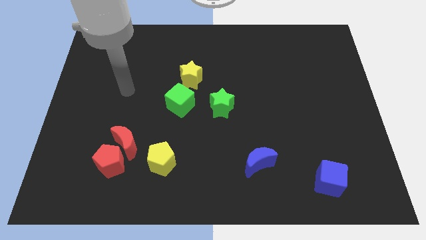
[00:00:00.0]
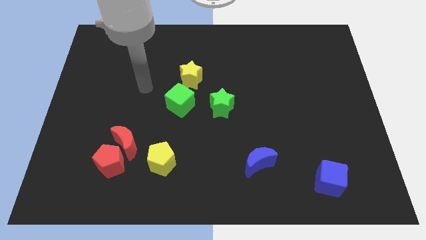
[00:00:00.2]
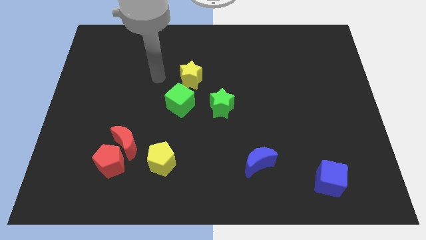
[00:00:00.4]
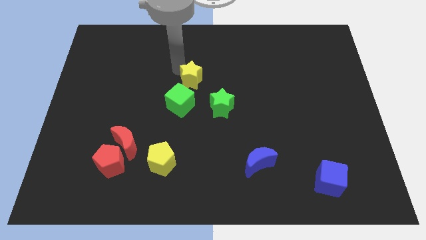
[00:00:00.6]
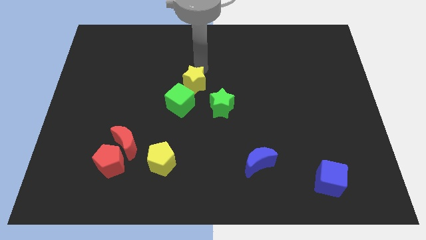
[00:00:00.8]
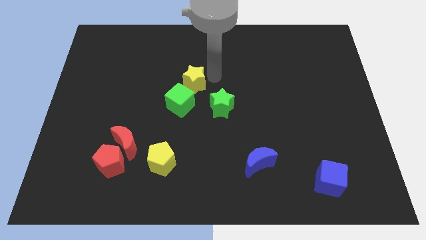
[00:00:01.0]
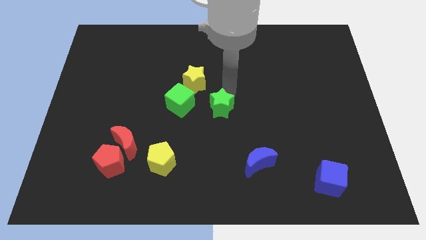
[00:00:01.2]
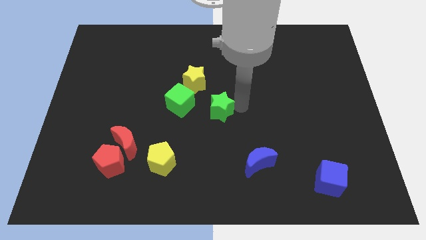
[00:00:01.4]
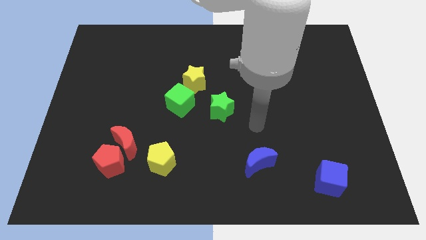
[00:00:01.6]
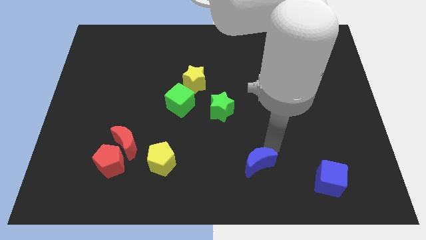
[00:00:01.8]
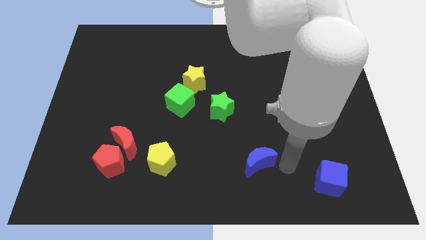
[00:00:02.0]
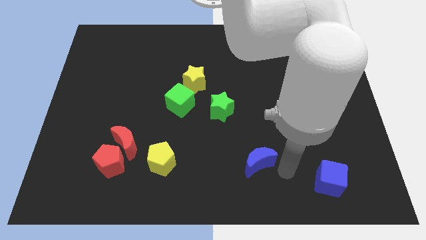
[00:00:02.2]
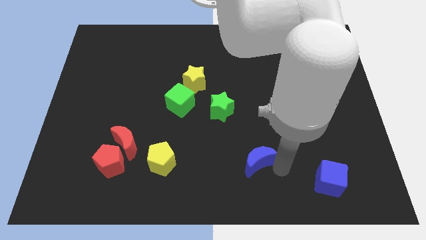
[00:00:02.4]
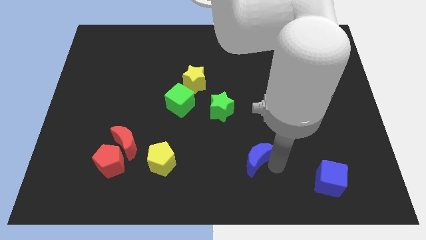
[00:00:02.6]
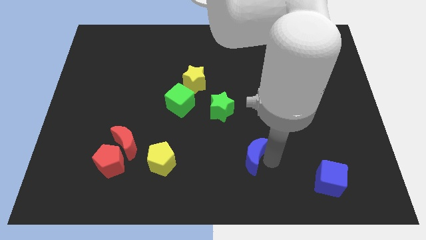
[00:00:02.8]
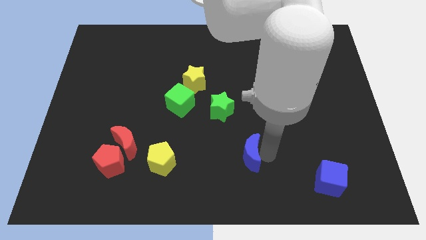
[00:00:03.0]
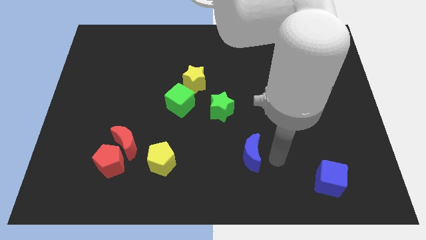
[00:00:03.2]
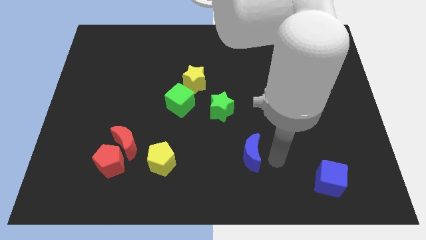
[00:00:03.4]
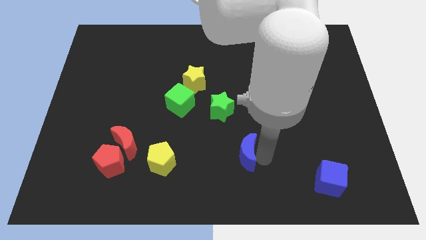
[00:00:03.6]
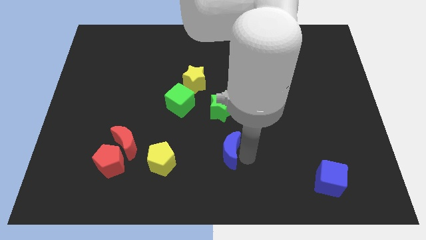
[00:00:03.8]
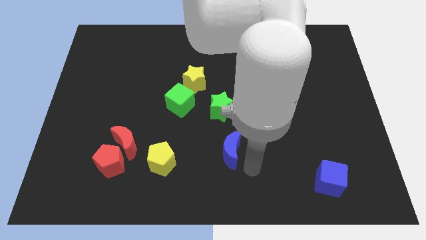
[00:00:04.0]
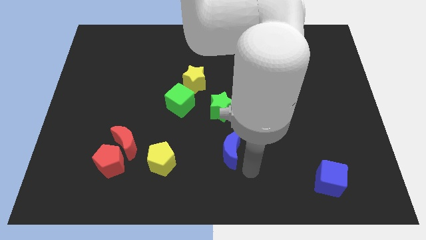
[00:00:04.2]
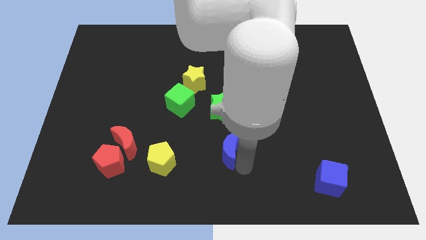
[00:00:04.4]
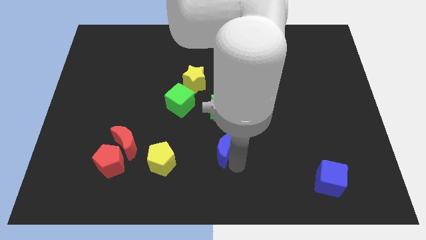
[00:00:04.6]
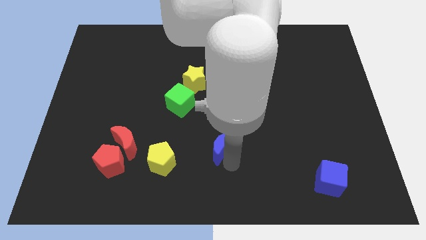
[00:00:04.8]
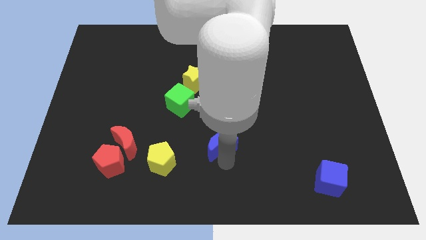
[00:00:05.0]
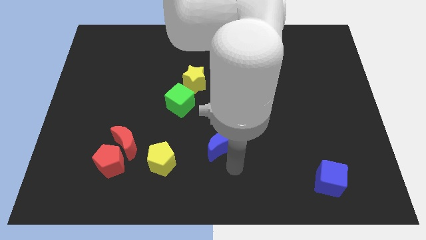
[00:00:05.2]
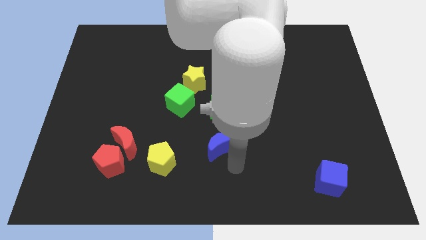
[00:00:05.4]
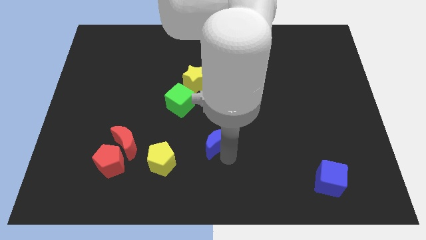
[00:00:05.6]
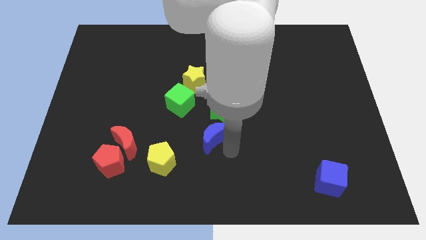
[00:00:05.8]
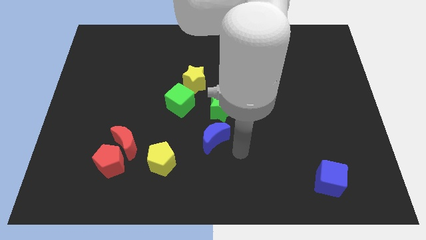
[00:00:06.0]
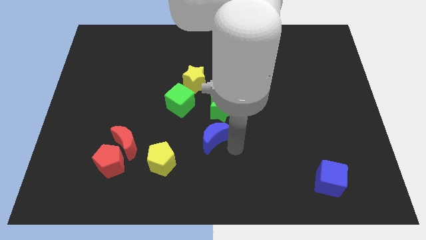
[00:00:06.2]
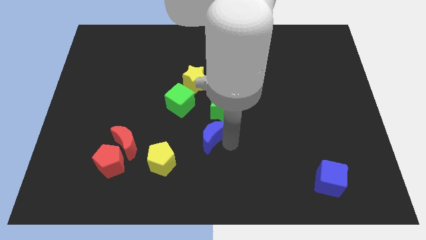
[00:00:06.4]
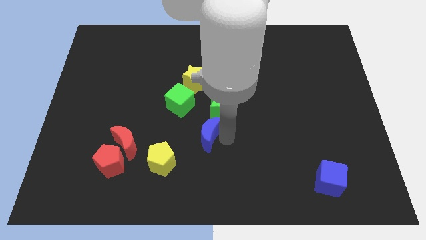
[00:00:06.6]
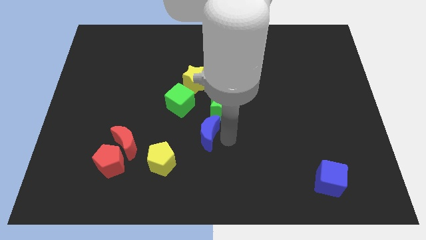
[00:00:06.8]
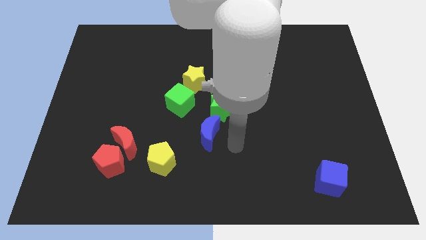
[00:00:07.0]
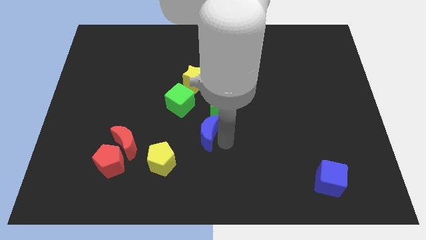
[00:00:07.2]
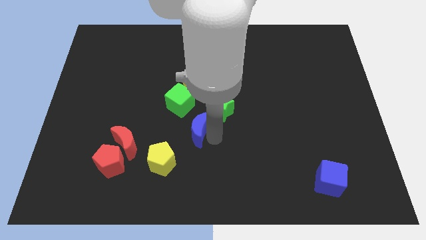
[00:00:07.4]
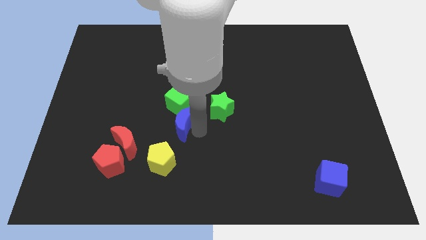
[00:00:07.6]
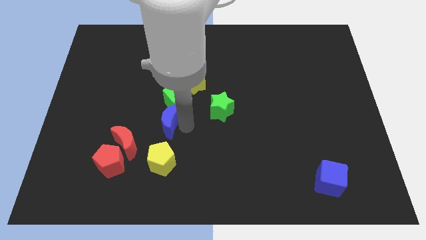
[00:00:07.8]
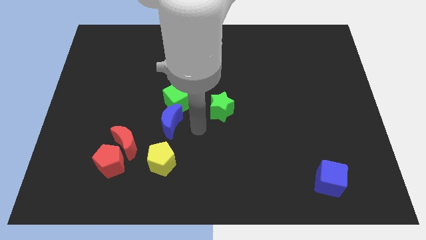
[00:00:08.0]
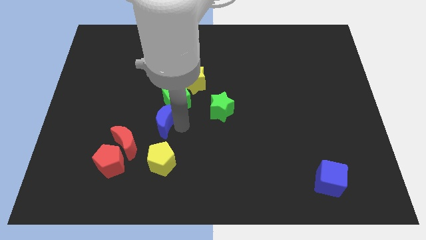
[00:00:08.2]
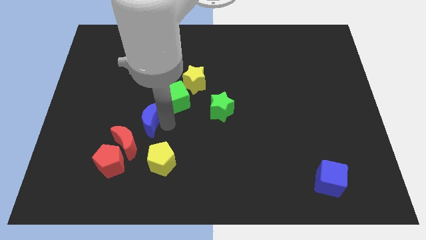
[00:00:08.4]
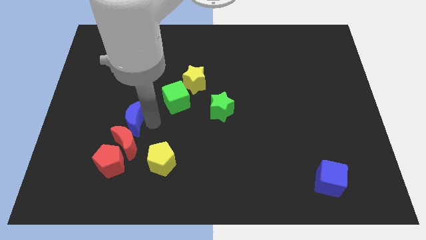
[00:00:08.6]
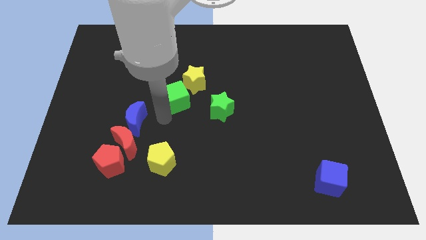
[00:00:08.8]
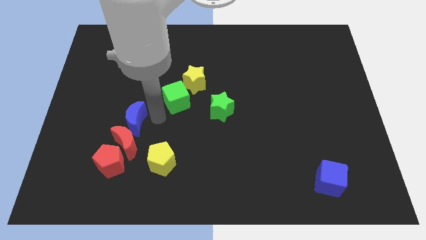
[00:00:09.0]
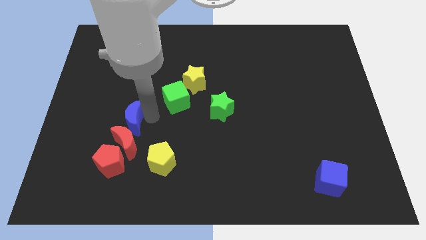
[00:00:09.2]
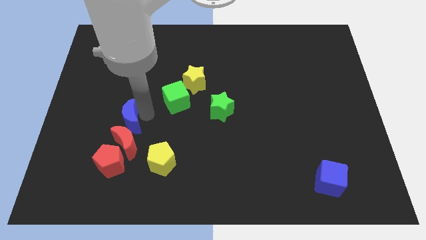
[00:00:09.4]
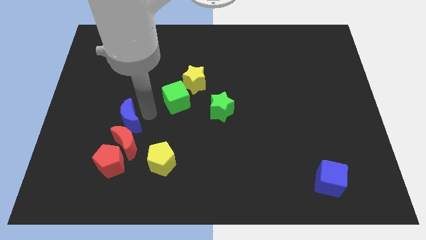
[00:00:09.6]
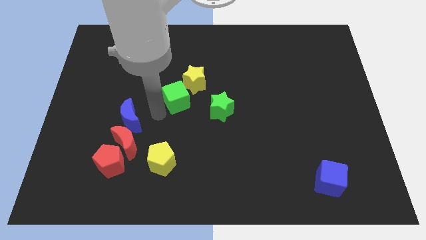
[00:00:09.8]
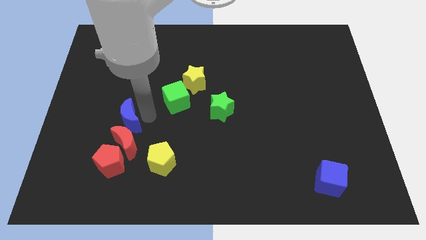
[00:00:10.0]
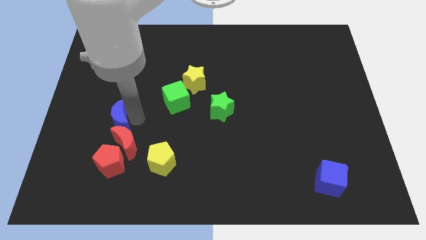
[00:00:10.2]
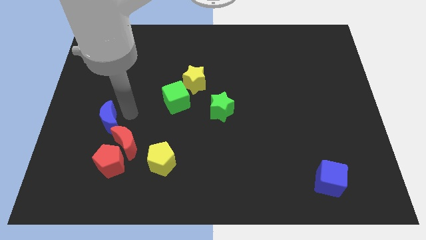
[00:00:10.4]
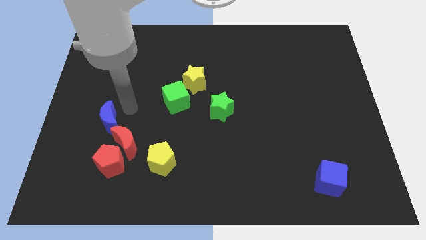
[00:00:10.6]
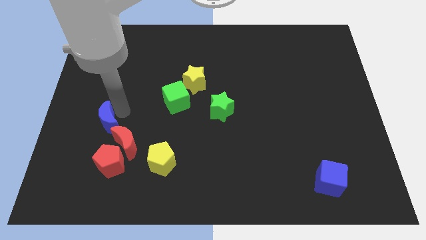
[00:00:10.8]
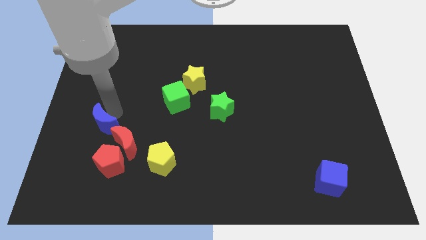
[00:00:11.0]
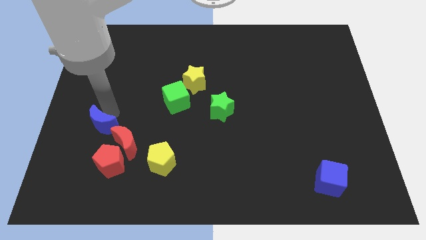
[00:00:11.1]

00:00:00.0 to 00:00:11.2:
slide the blue moon left of the red moon

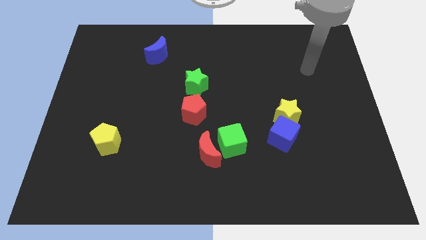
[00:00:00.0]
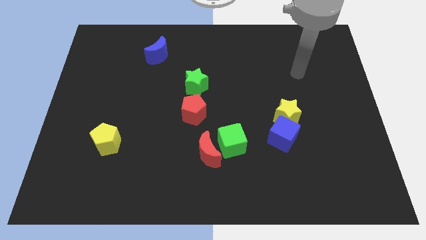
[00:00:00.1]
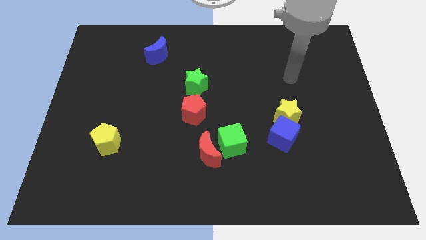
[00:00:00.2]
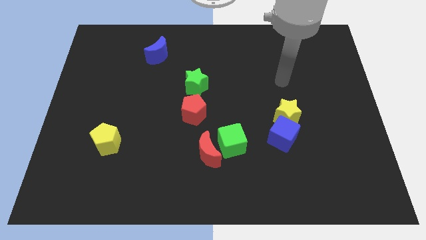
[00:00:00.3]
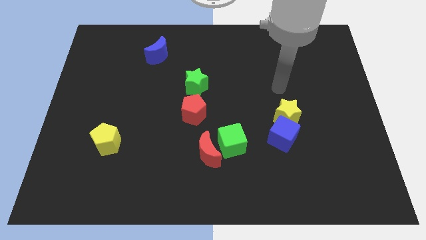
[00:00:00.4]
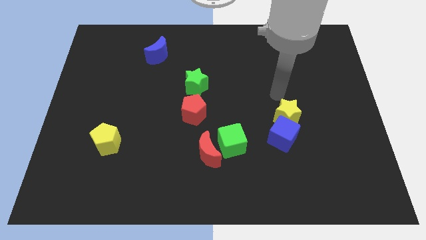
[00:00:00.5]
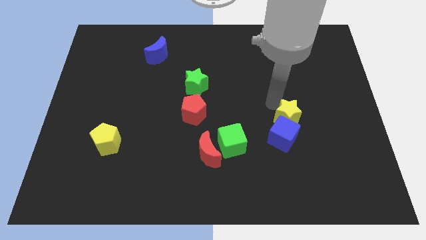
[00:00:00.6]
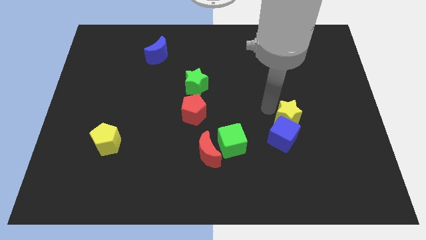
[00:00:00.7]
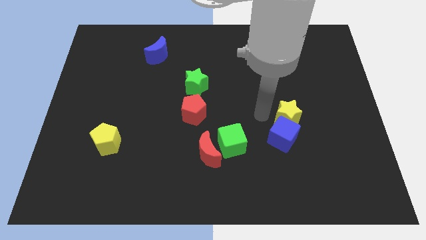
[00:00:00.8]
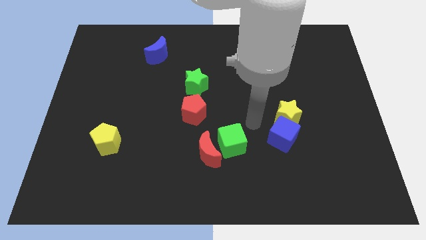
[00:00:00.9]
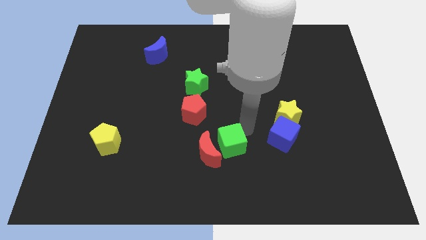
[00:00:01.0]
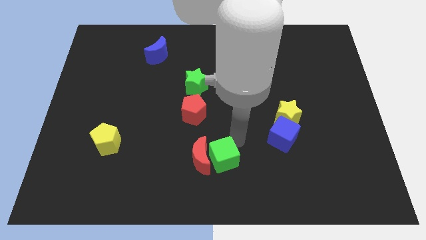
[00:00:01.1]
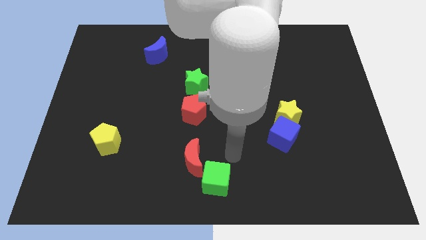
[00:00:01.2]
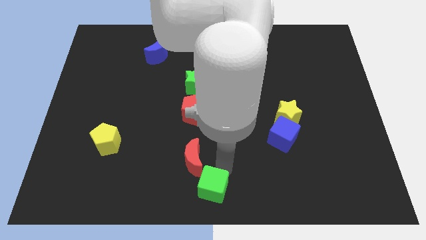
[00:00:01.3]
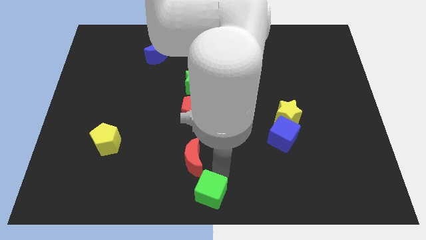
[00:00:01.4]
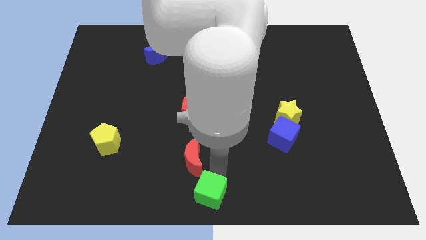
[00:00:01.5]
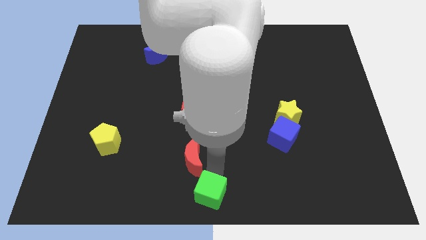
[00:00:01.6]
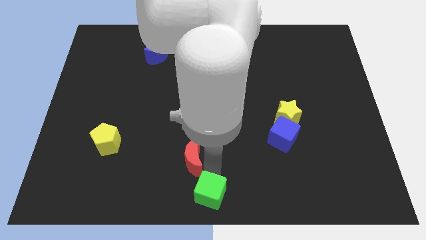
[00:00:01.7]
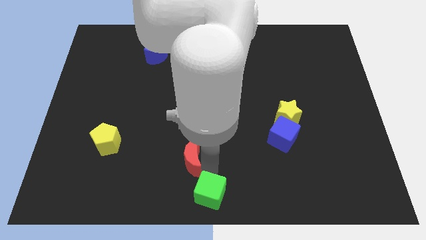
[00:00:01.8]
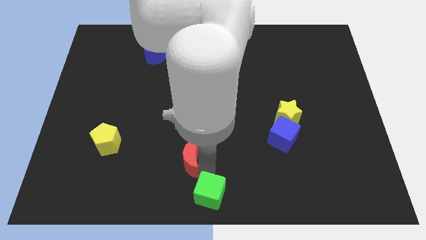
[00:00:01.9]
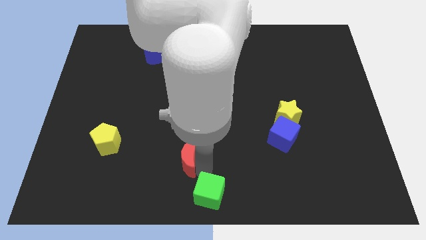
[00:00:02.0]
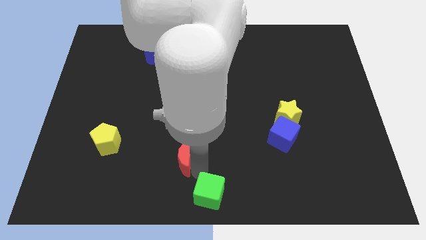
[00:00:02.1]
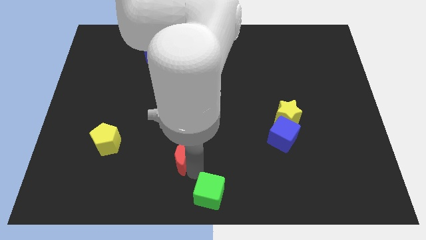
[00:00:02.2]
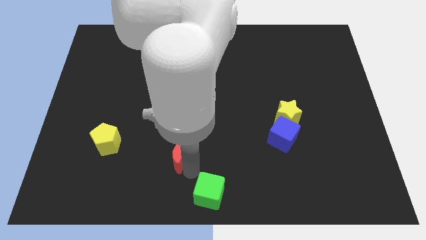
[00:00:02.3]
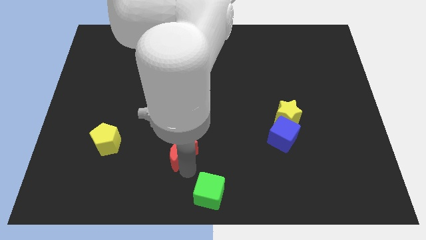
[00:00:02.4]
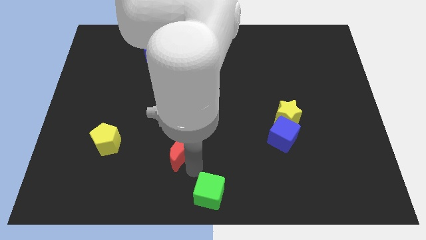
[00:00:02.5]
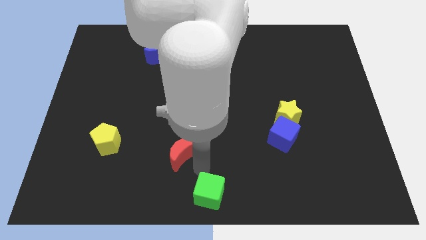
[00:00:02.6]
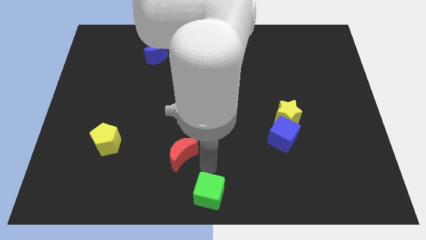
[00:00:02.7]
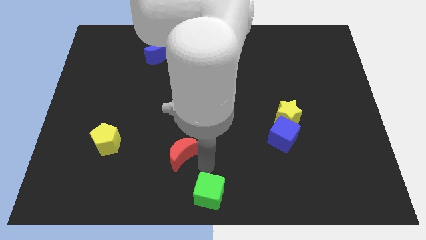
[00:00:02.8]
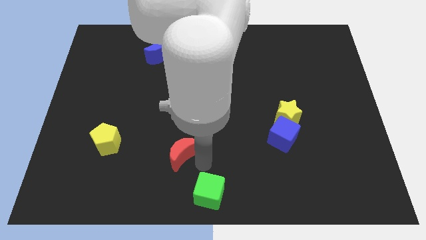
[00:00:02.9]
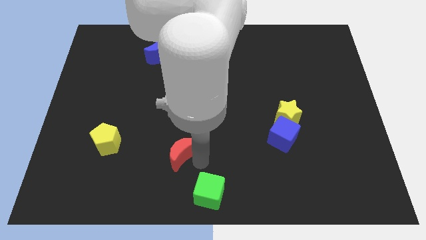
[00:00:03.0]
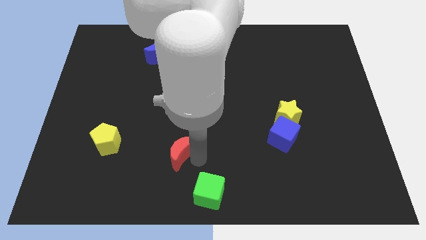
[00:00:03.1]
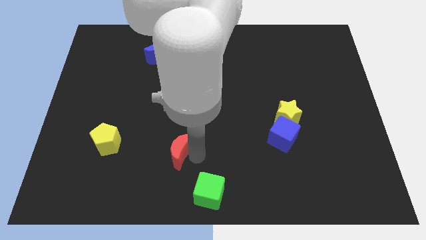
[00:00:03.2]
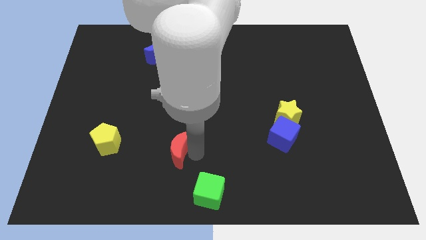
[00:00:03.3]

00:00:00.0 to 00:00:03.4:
move the red moon just right of the yellow pentagon
